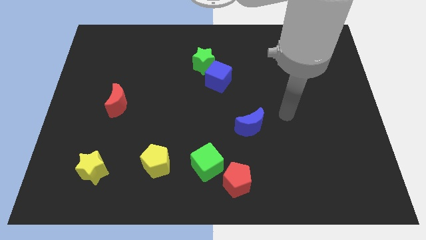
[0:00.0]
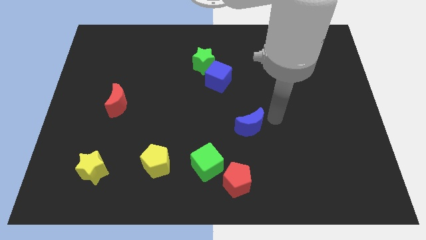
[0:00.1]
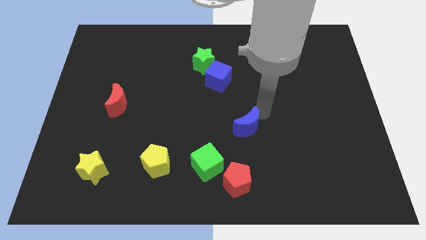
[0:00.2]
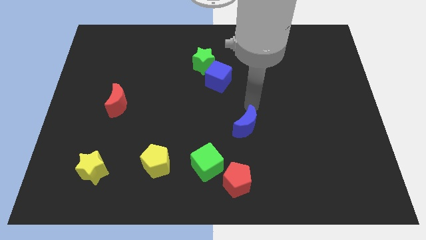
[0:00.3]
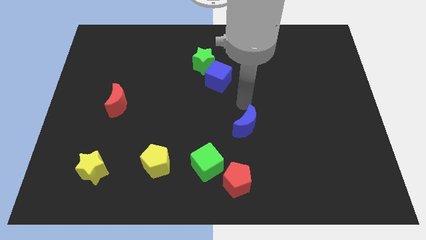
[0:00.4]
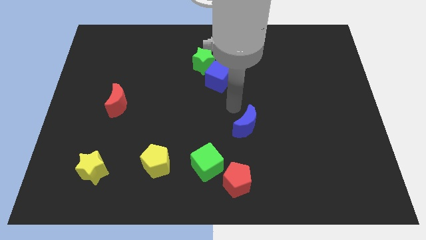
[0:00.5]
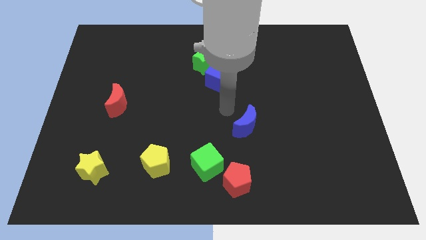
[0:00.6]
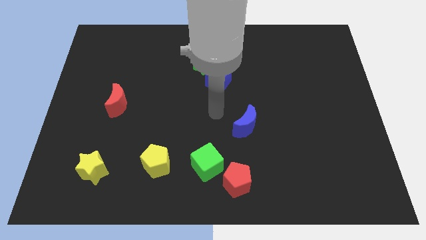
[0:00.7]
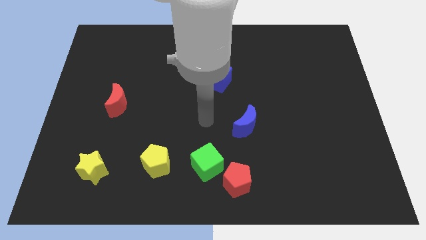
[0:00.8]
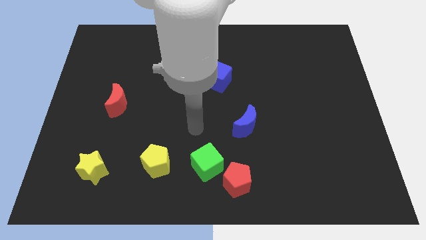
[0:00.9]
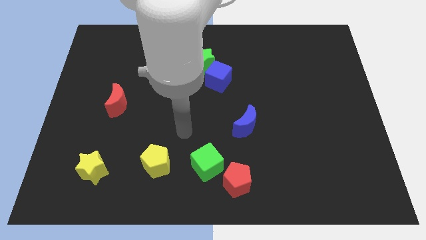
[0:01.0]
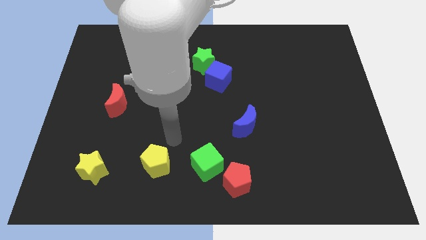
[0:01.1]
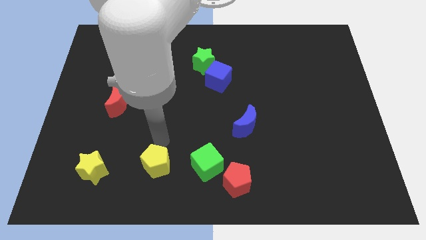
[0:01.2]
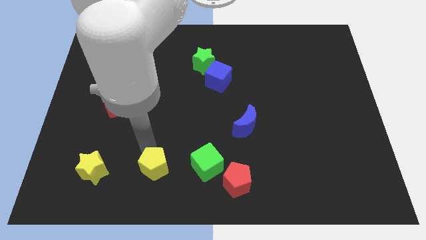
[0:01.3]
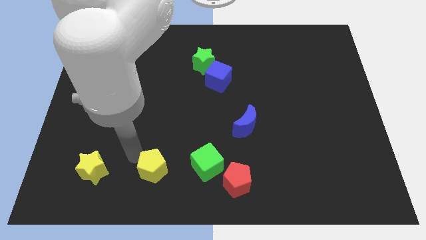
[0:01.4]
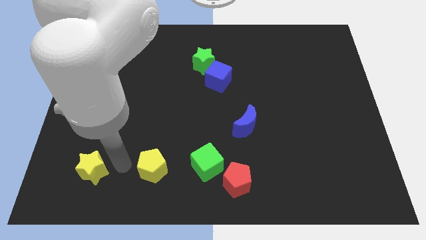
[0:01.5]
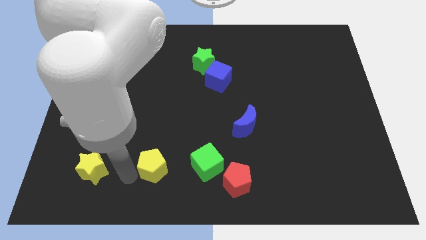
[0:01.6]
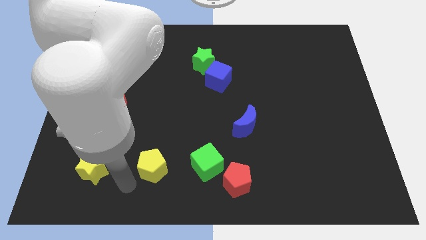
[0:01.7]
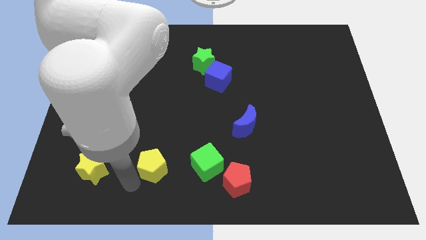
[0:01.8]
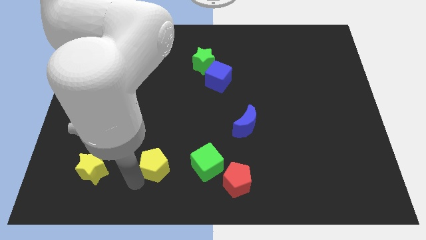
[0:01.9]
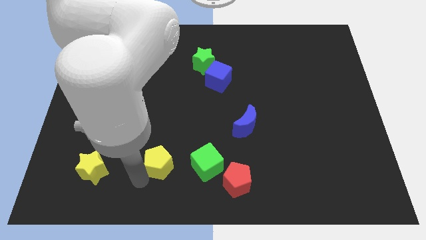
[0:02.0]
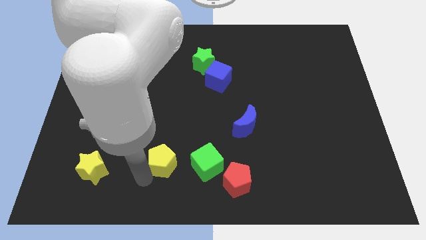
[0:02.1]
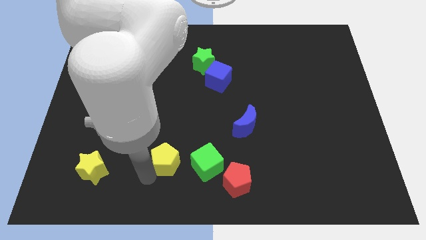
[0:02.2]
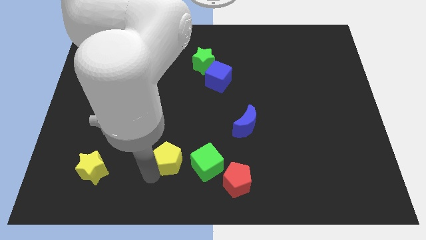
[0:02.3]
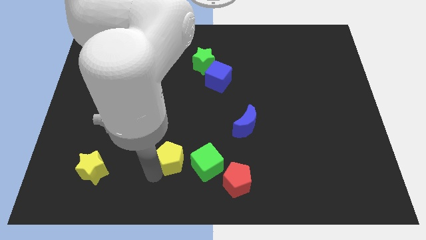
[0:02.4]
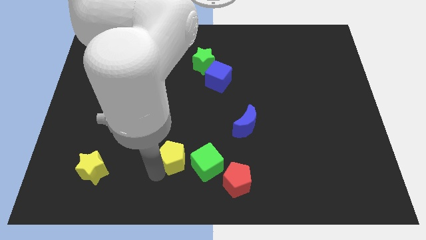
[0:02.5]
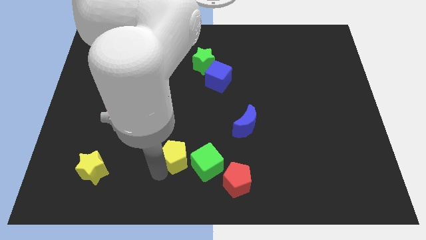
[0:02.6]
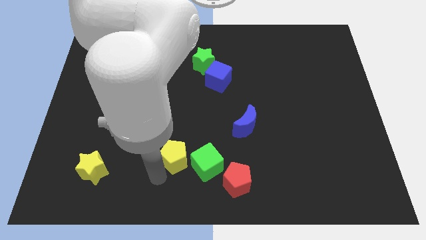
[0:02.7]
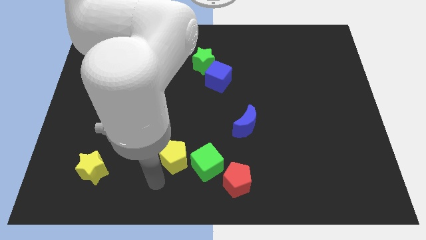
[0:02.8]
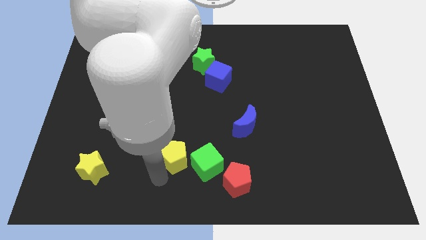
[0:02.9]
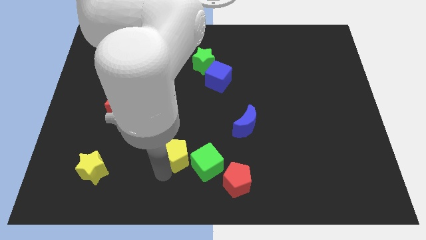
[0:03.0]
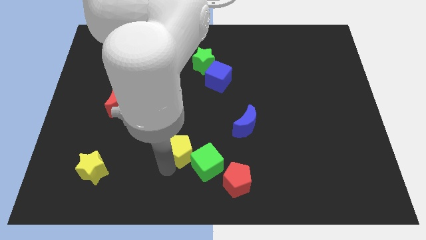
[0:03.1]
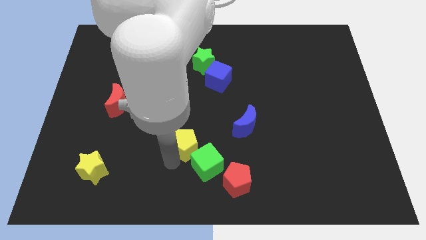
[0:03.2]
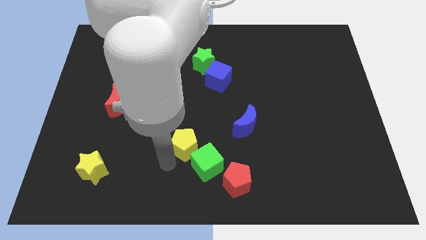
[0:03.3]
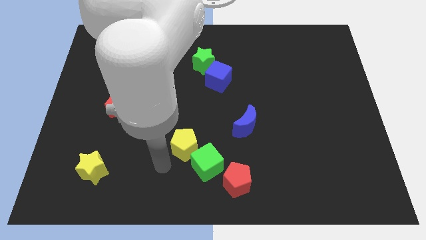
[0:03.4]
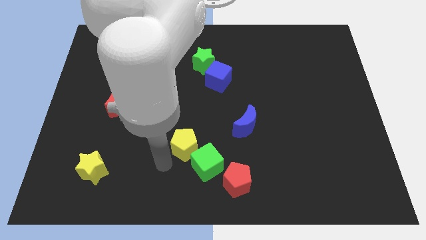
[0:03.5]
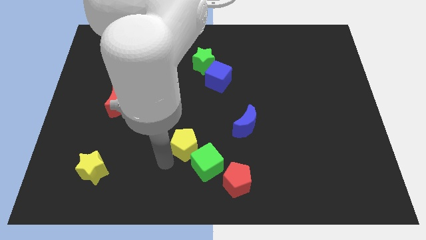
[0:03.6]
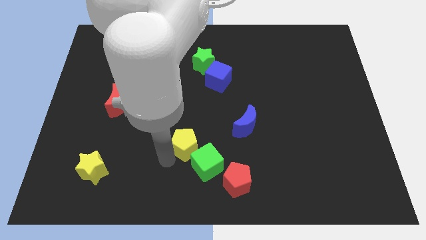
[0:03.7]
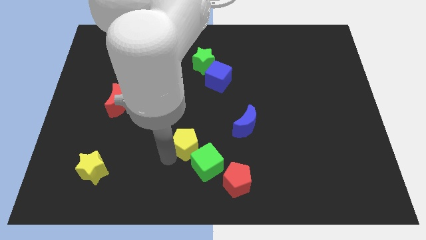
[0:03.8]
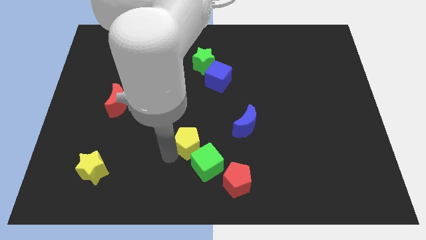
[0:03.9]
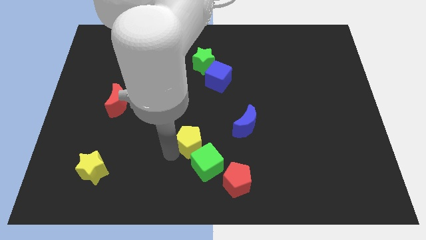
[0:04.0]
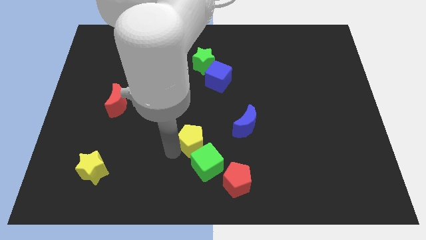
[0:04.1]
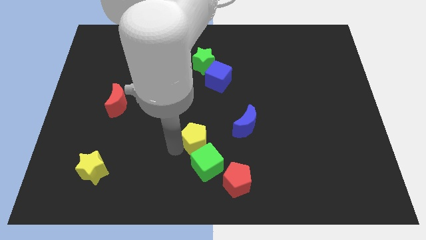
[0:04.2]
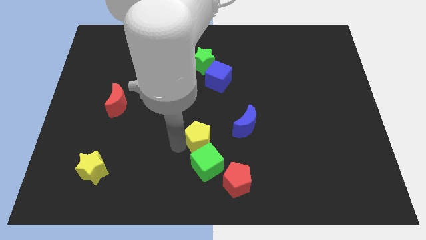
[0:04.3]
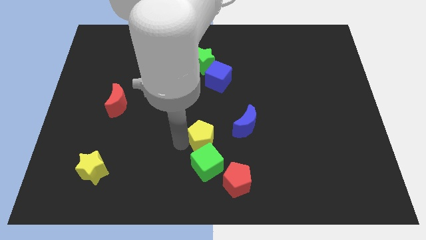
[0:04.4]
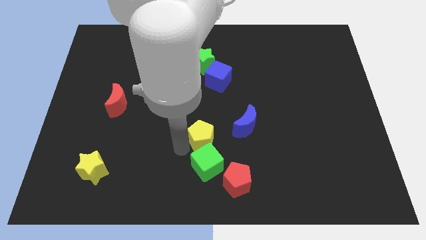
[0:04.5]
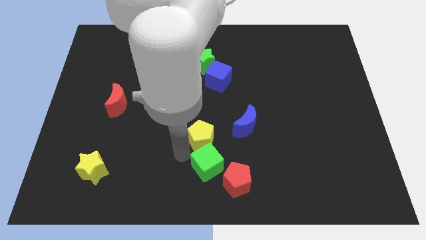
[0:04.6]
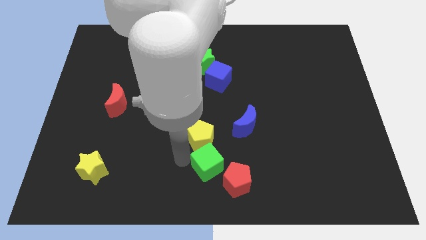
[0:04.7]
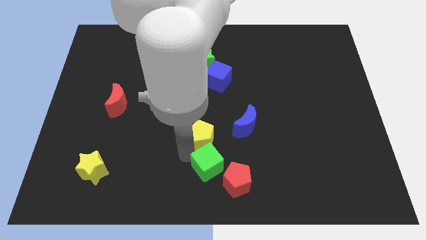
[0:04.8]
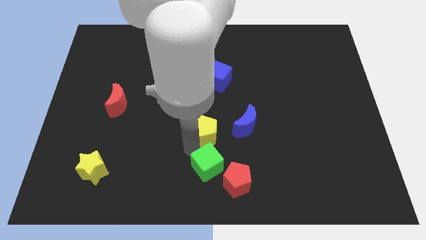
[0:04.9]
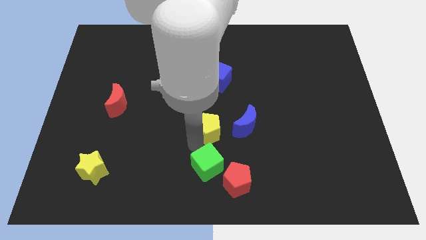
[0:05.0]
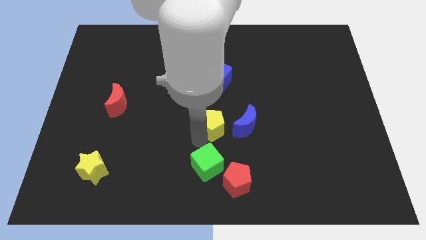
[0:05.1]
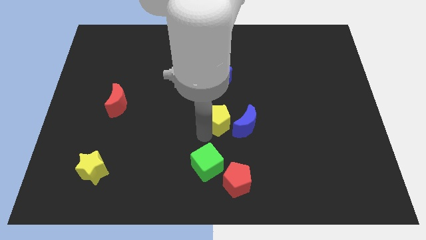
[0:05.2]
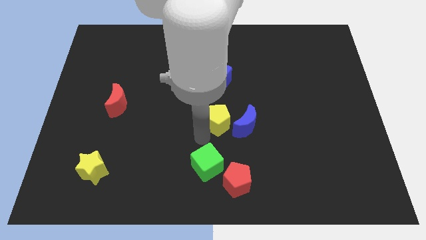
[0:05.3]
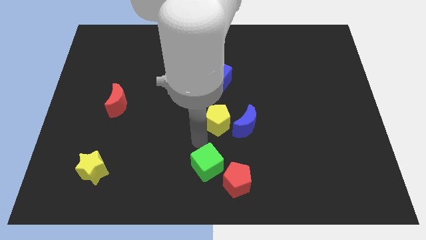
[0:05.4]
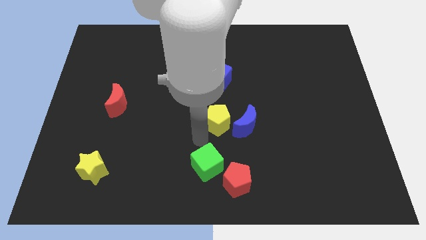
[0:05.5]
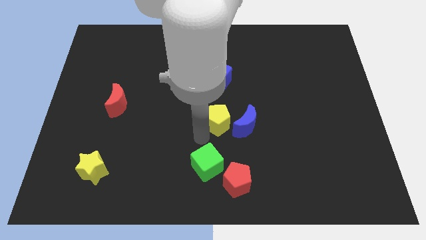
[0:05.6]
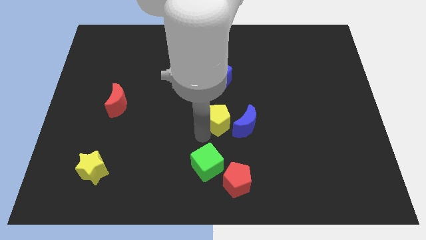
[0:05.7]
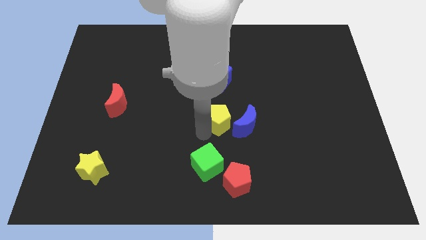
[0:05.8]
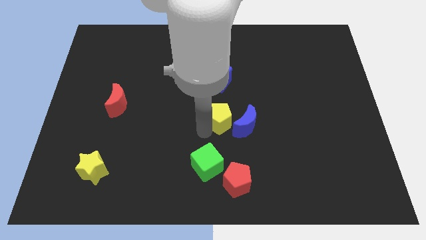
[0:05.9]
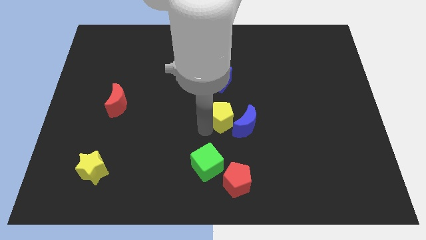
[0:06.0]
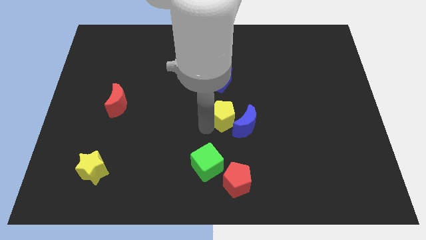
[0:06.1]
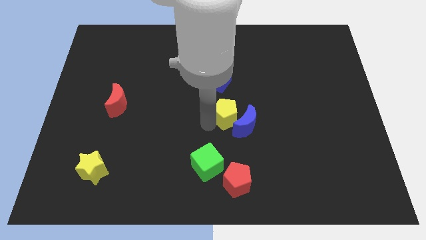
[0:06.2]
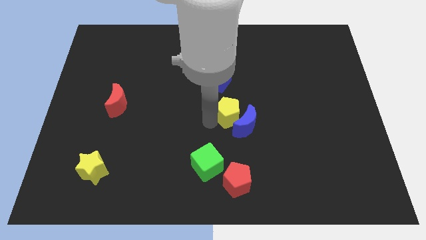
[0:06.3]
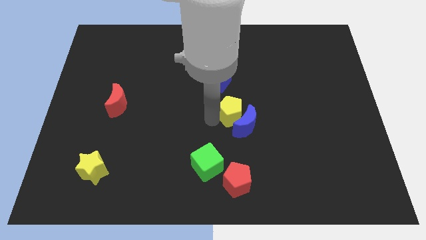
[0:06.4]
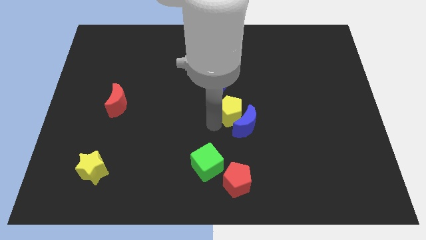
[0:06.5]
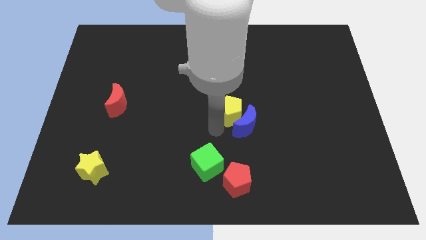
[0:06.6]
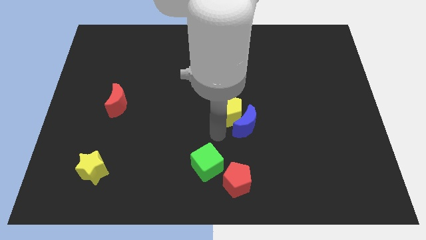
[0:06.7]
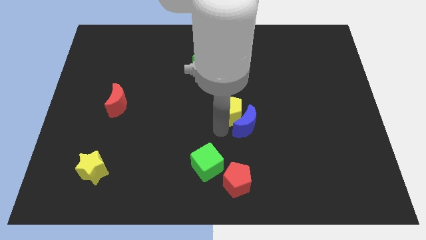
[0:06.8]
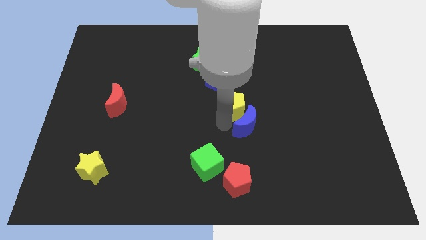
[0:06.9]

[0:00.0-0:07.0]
move the yellow pentagon to the bottom right side of the blue cube

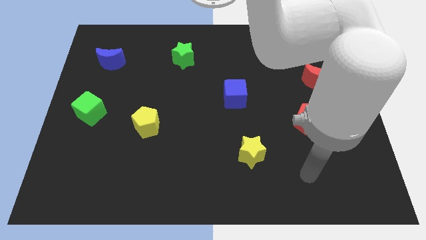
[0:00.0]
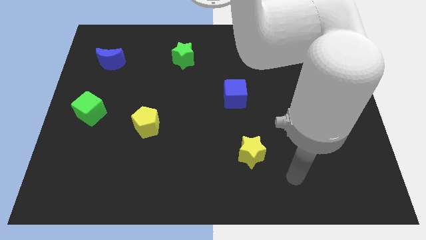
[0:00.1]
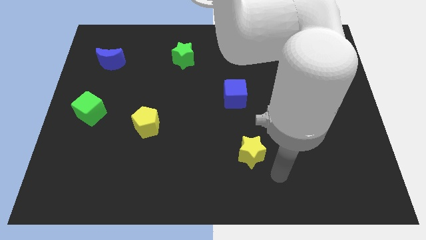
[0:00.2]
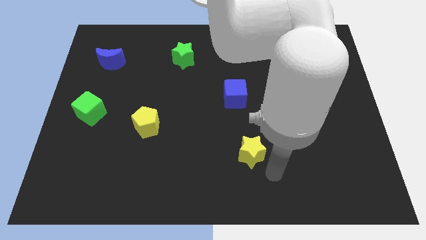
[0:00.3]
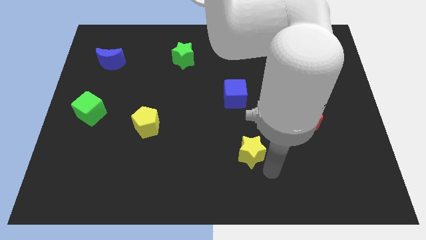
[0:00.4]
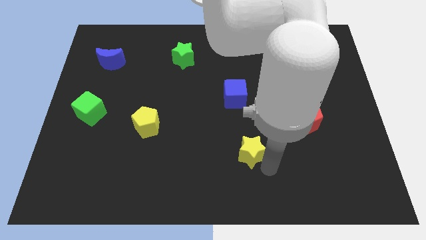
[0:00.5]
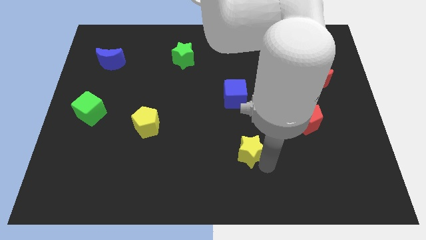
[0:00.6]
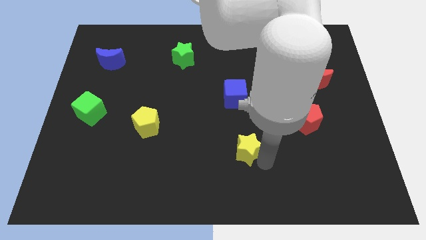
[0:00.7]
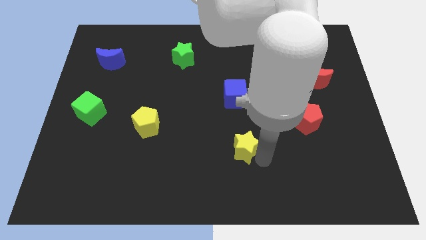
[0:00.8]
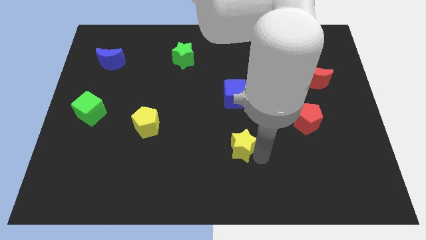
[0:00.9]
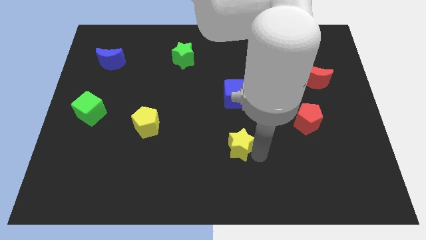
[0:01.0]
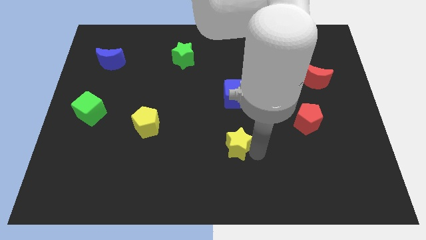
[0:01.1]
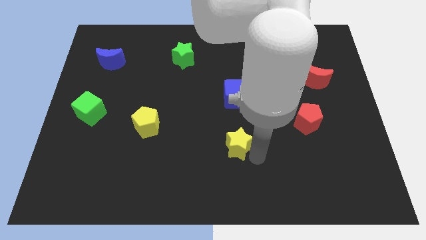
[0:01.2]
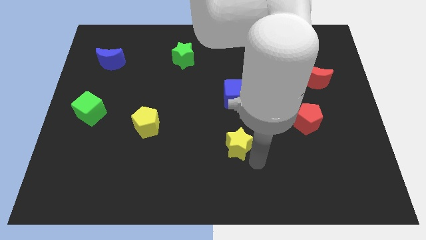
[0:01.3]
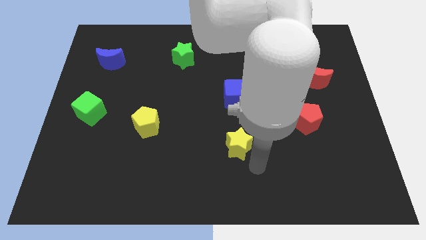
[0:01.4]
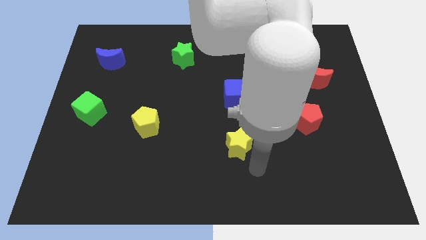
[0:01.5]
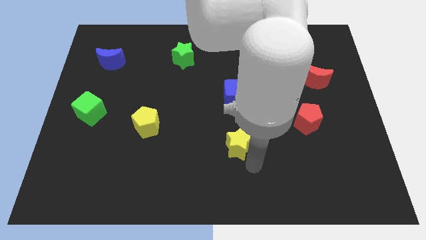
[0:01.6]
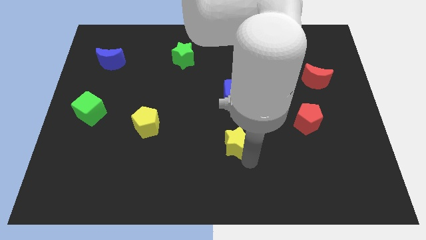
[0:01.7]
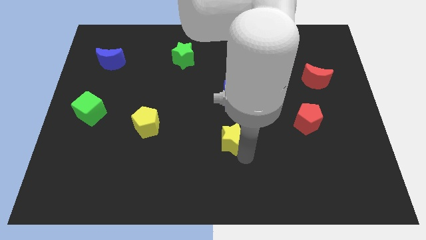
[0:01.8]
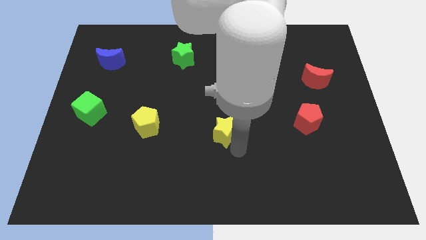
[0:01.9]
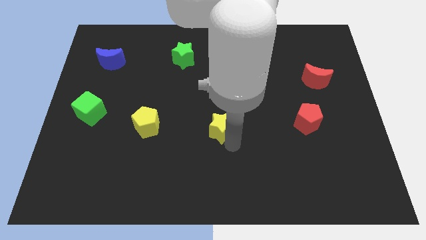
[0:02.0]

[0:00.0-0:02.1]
slide the yellow star to the bottom left of the blue cube
